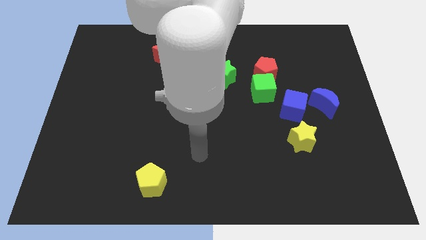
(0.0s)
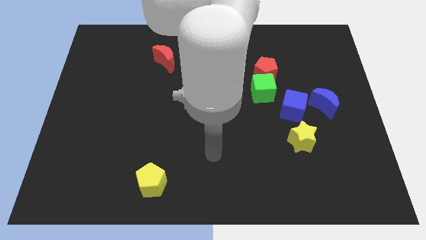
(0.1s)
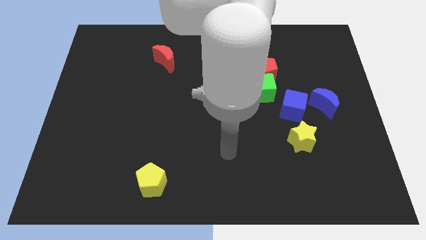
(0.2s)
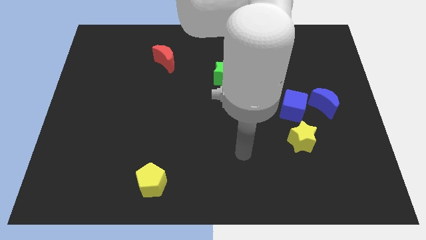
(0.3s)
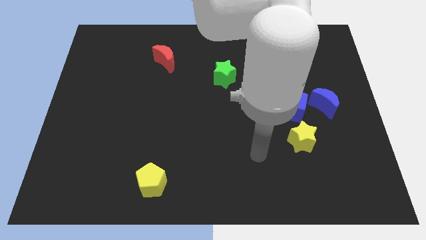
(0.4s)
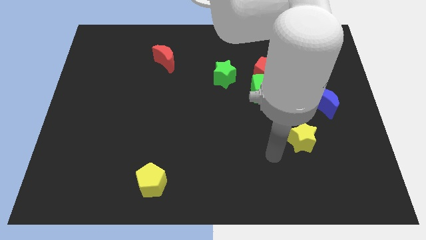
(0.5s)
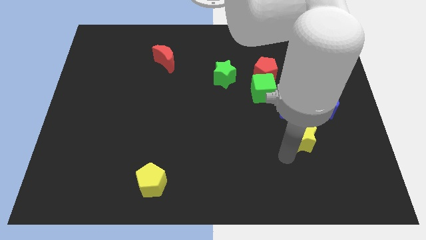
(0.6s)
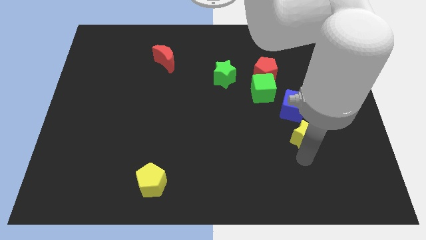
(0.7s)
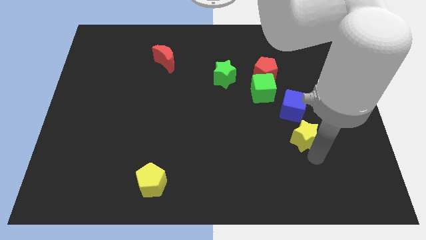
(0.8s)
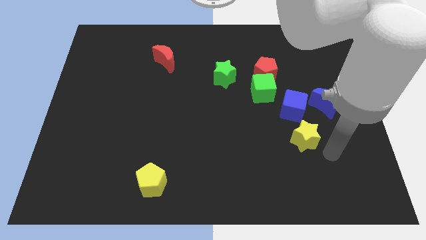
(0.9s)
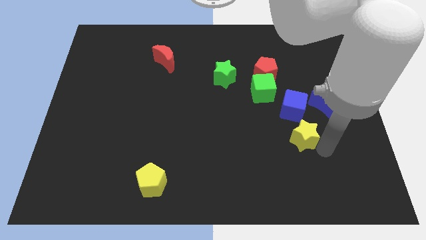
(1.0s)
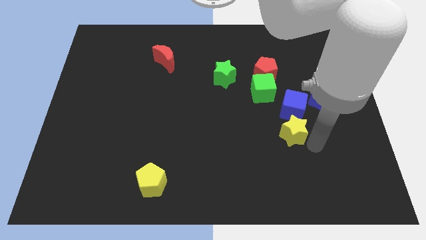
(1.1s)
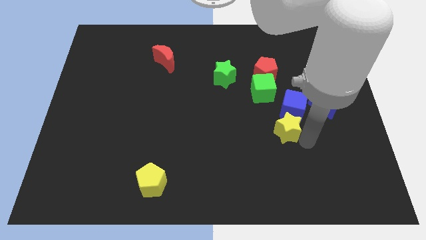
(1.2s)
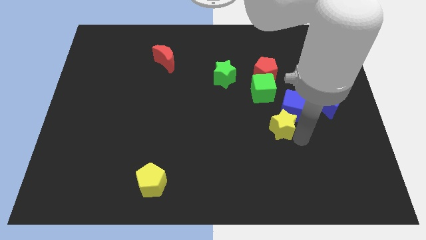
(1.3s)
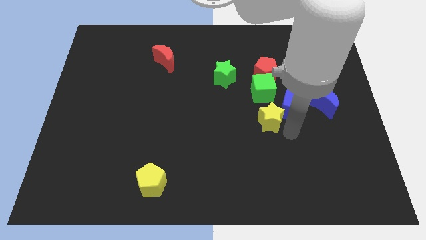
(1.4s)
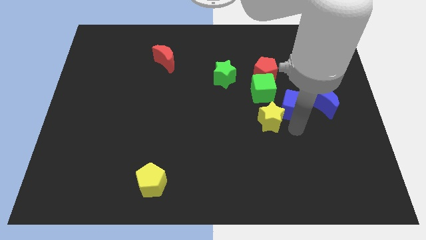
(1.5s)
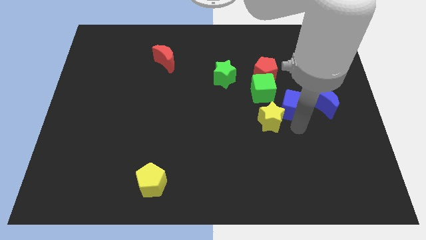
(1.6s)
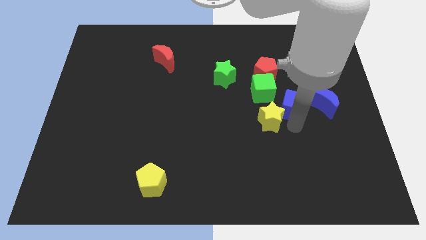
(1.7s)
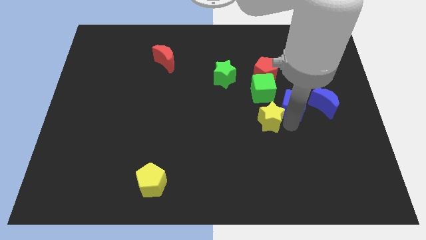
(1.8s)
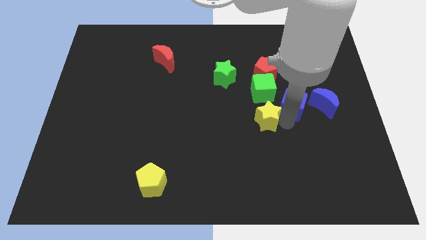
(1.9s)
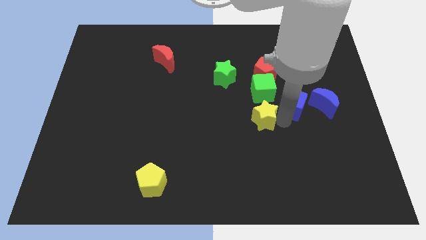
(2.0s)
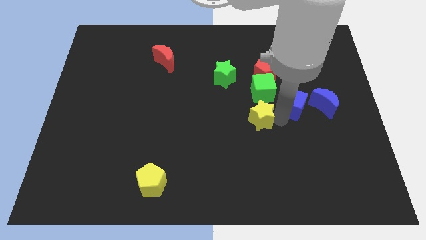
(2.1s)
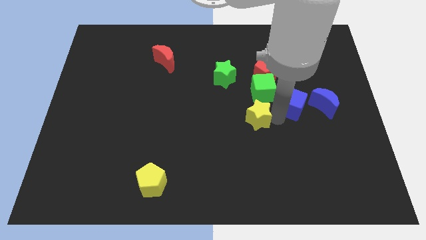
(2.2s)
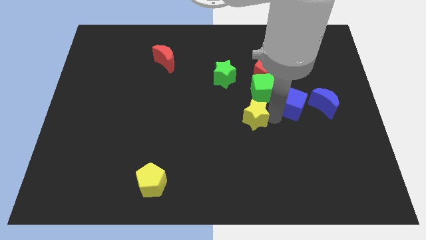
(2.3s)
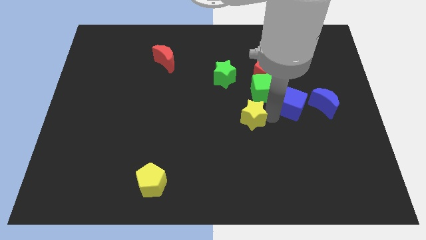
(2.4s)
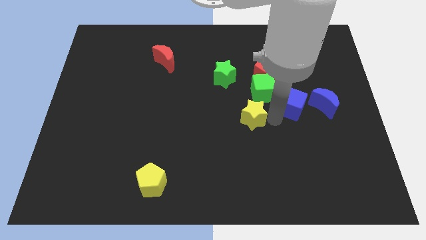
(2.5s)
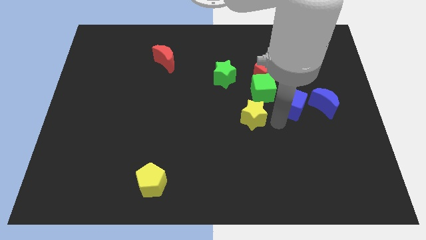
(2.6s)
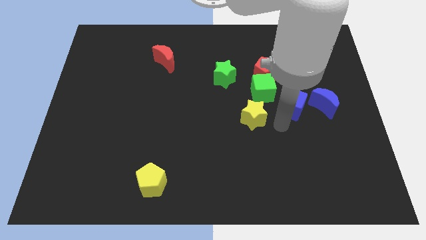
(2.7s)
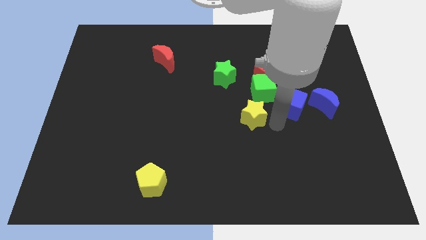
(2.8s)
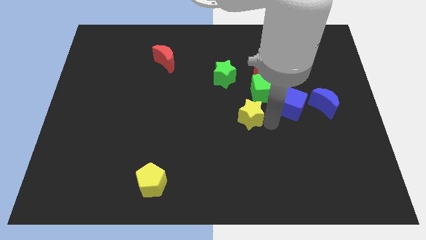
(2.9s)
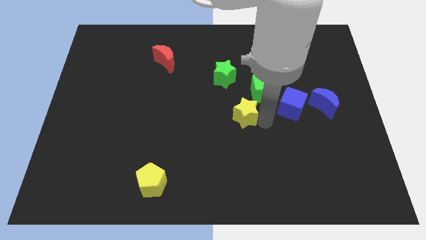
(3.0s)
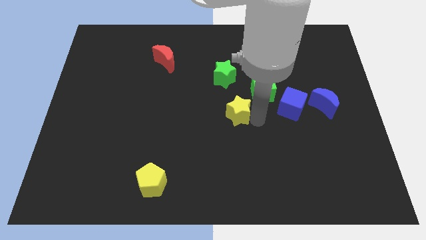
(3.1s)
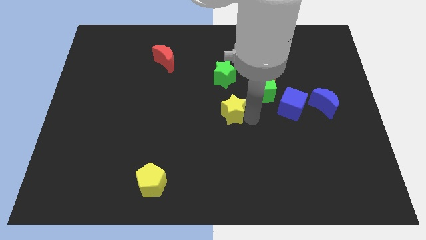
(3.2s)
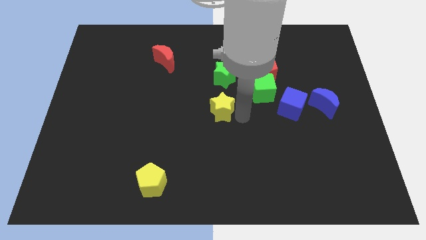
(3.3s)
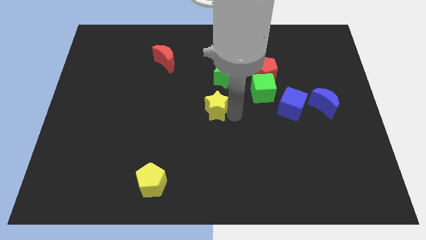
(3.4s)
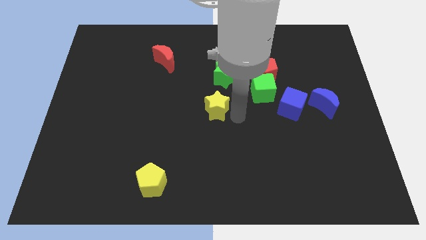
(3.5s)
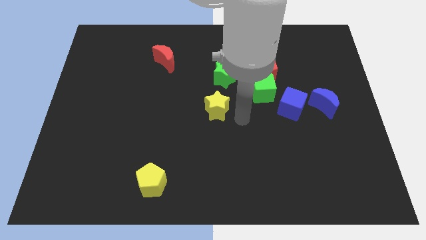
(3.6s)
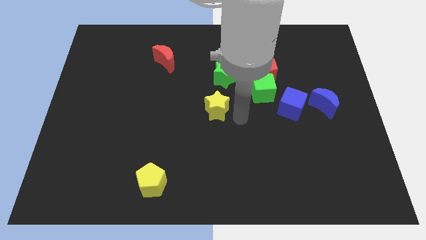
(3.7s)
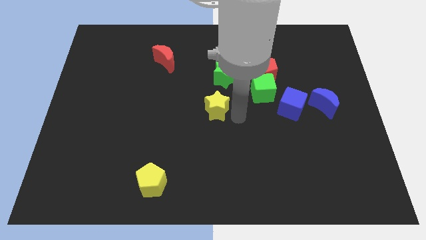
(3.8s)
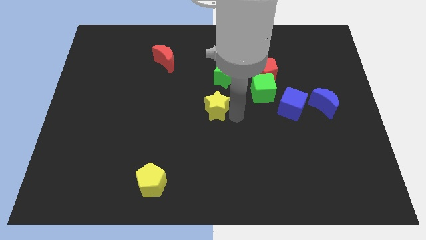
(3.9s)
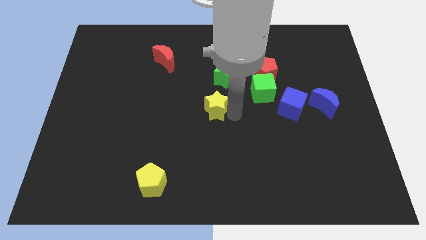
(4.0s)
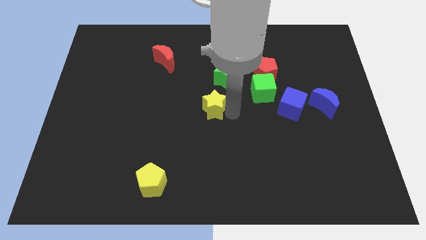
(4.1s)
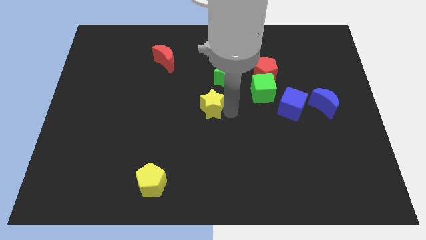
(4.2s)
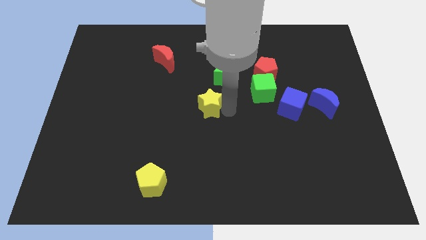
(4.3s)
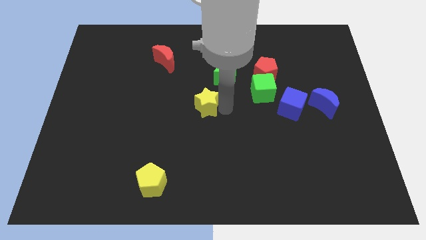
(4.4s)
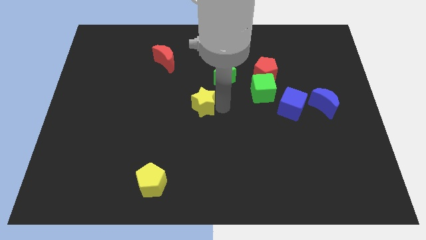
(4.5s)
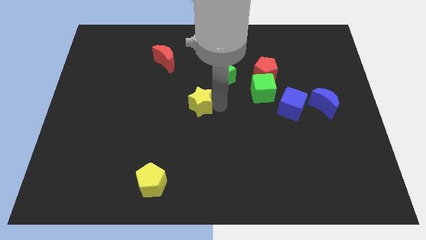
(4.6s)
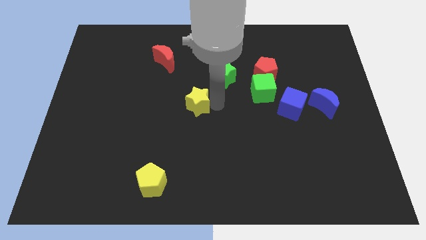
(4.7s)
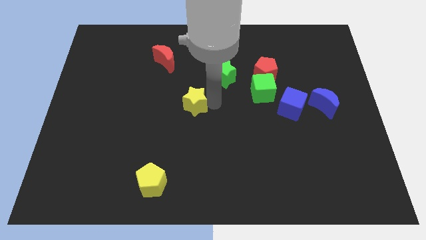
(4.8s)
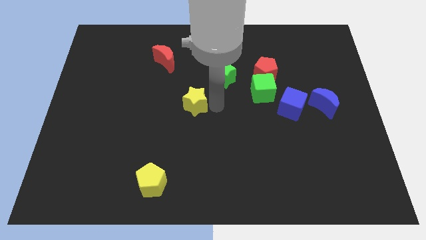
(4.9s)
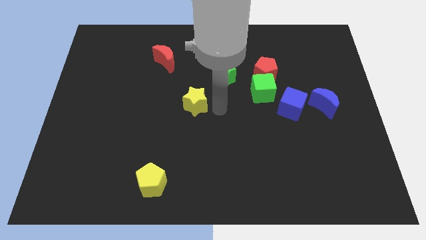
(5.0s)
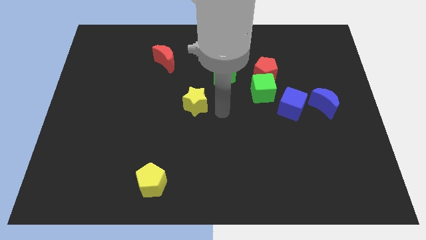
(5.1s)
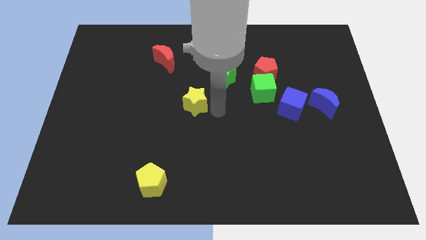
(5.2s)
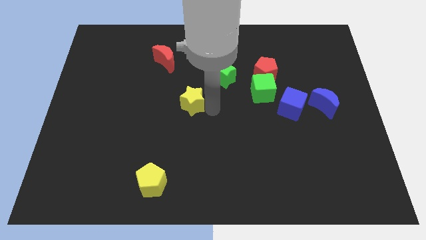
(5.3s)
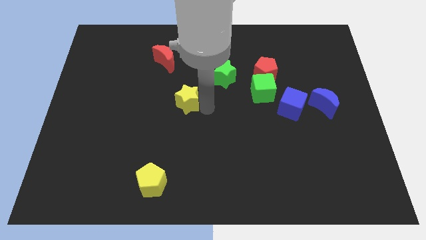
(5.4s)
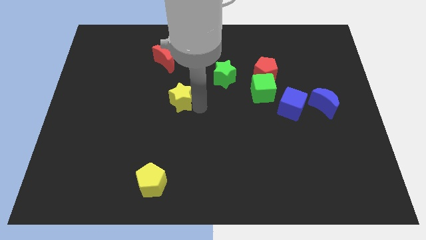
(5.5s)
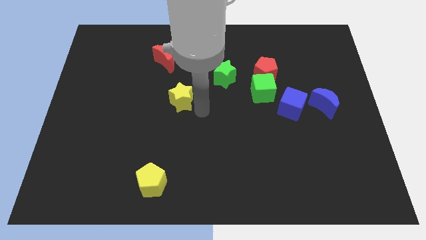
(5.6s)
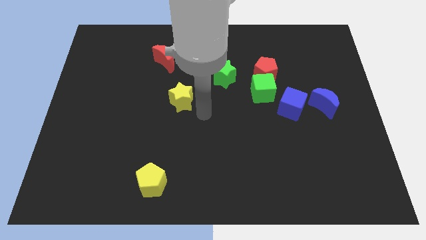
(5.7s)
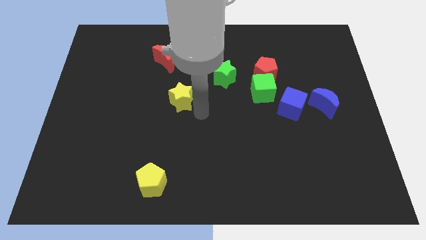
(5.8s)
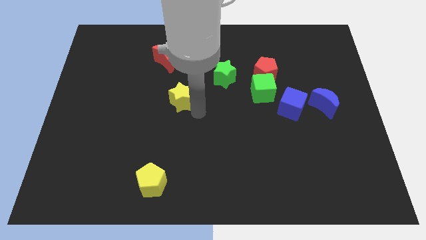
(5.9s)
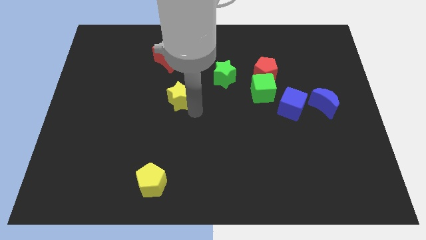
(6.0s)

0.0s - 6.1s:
move the yellow star to the bottom of the red moon

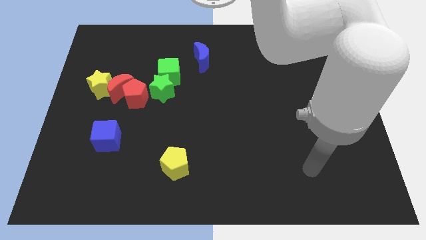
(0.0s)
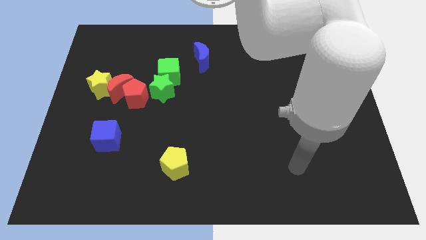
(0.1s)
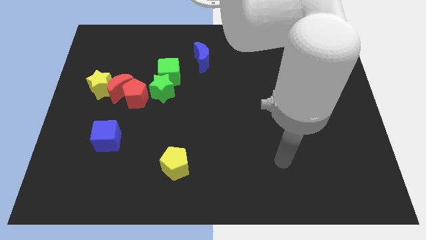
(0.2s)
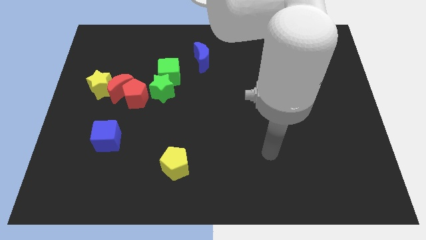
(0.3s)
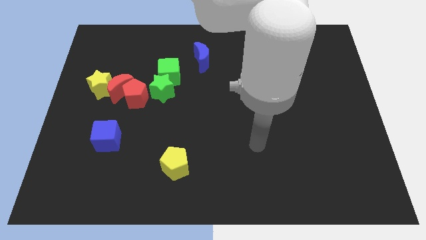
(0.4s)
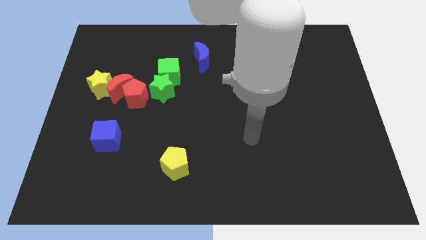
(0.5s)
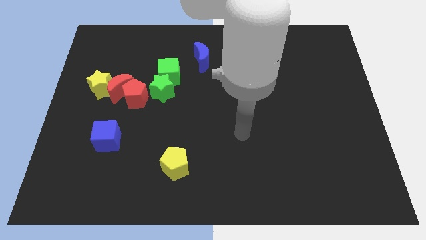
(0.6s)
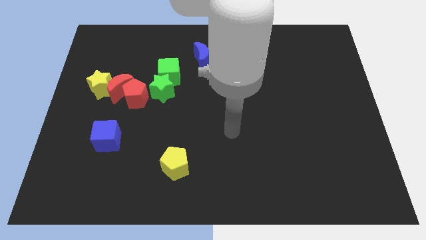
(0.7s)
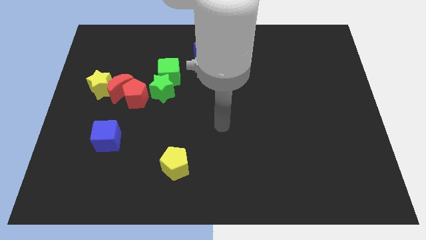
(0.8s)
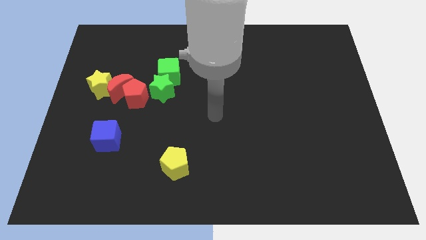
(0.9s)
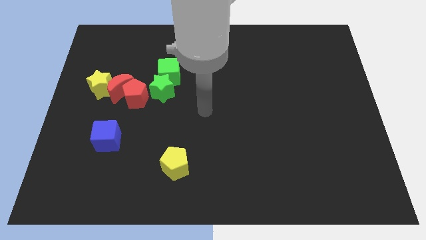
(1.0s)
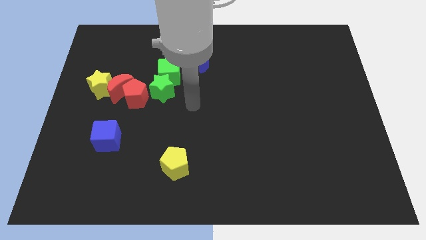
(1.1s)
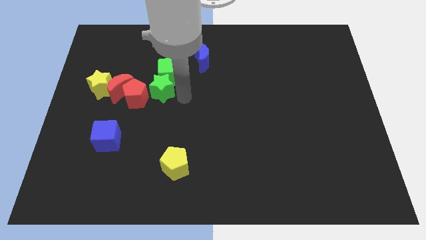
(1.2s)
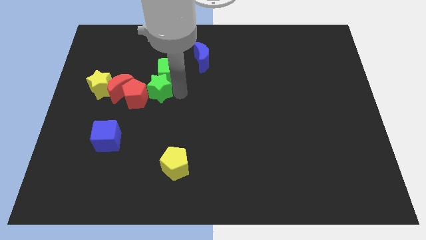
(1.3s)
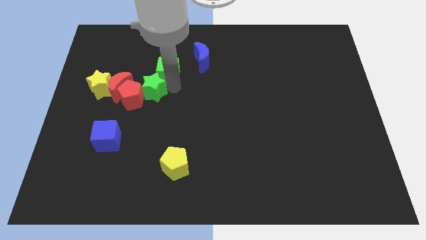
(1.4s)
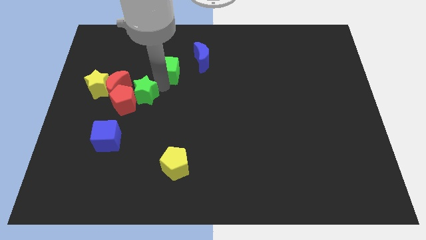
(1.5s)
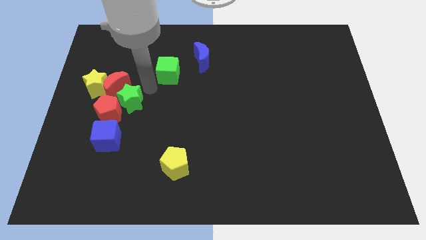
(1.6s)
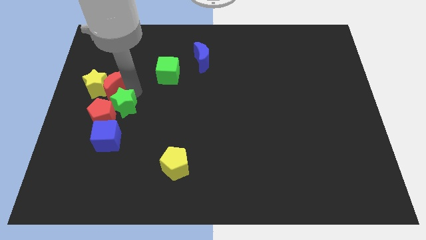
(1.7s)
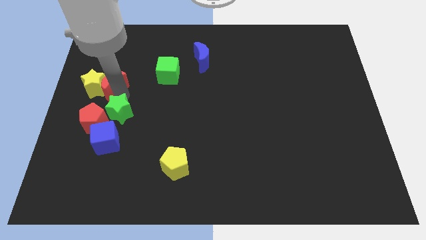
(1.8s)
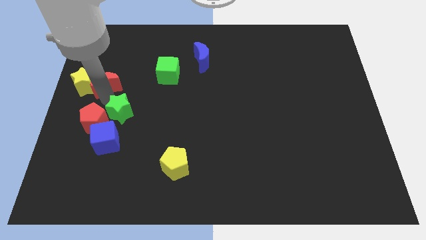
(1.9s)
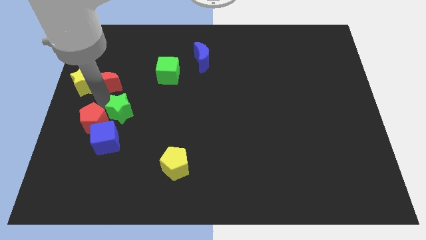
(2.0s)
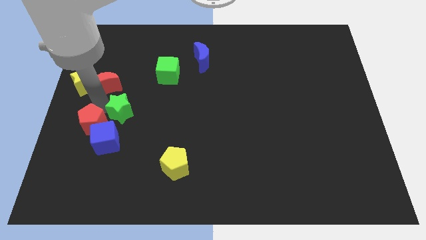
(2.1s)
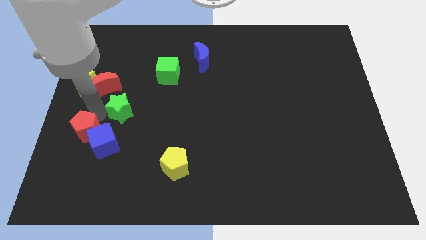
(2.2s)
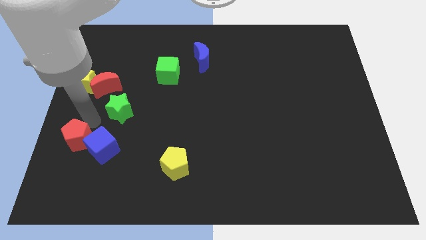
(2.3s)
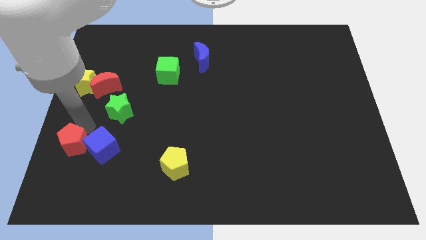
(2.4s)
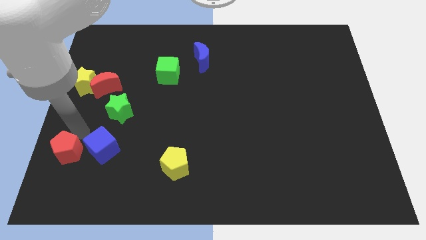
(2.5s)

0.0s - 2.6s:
push the red pentagon diagonally down and to the left of the blue cube
